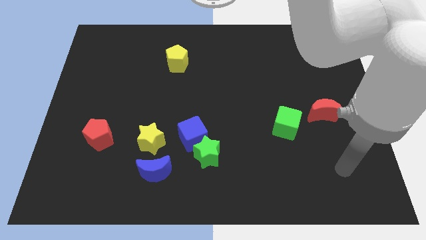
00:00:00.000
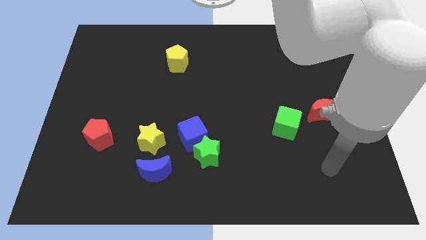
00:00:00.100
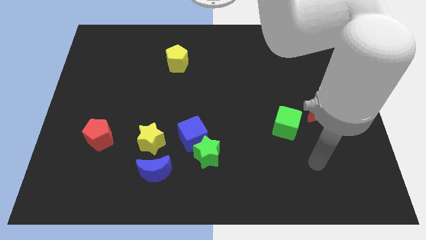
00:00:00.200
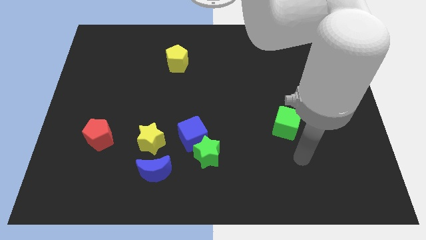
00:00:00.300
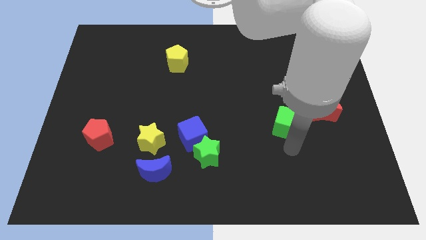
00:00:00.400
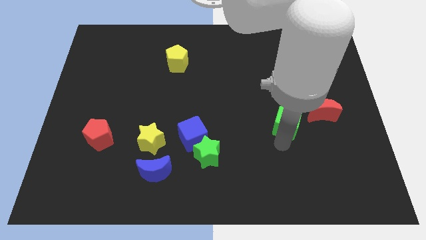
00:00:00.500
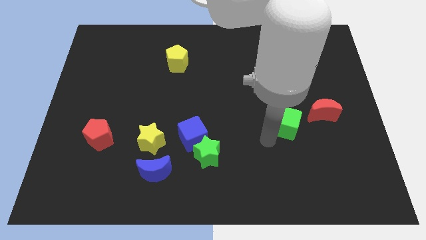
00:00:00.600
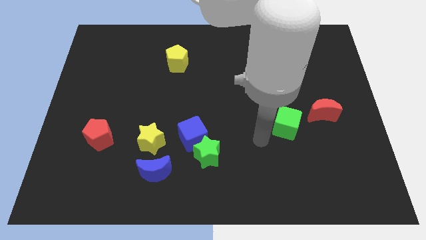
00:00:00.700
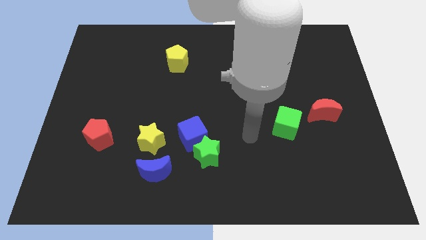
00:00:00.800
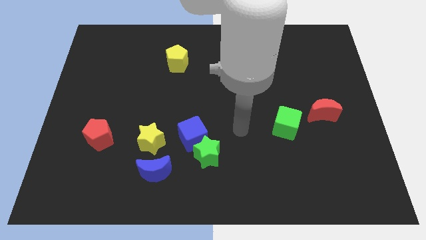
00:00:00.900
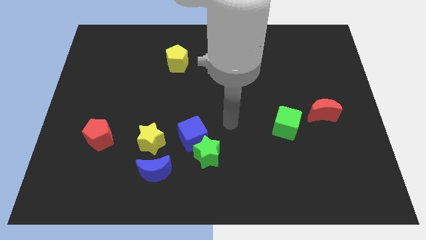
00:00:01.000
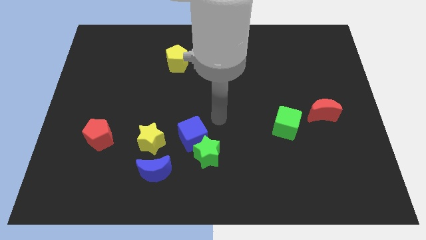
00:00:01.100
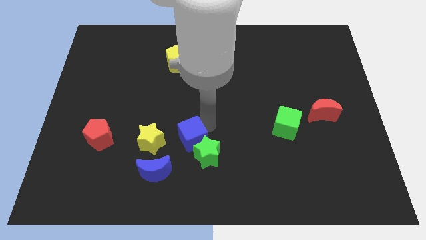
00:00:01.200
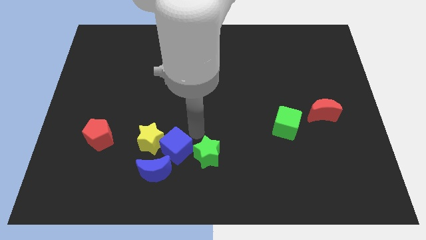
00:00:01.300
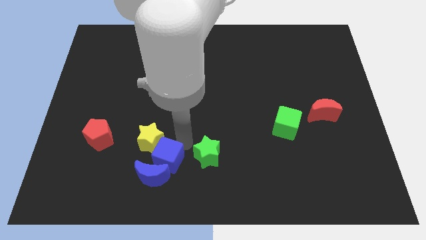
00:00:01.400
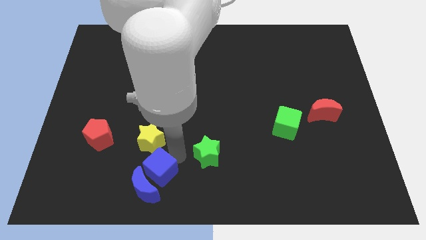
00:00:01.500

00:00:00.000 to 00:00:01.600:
separate the green star from the blue cube

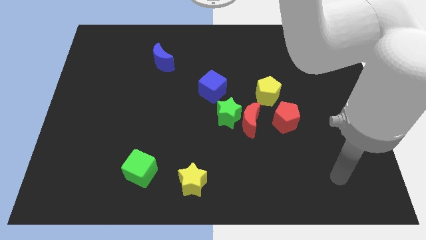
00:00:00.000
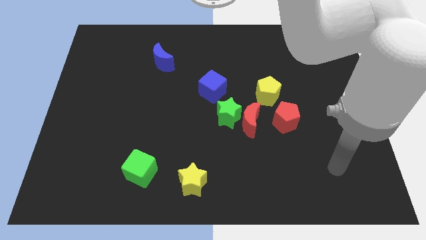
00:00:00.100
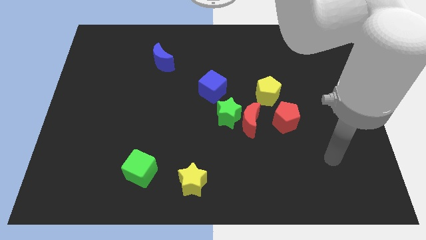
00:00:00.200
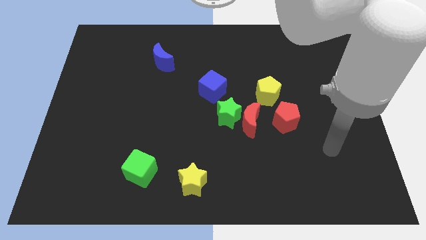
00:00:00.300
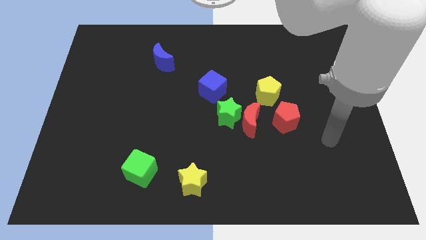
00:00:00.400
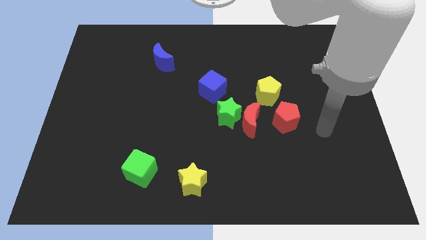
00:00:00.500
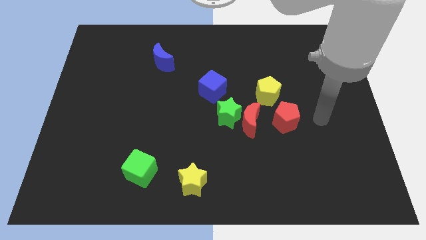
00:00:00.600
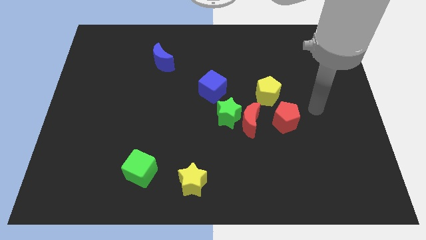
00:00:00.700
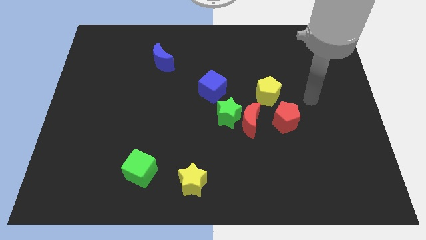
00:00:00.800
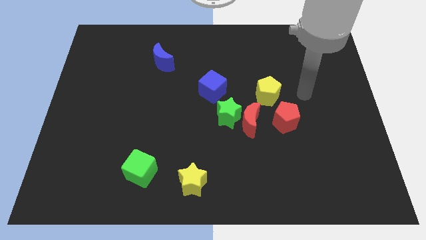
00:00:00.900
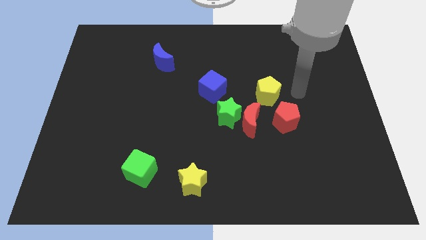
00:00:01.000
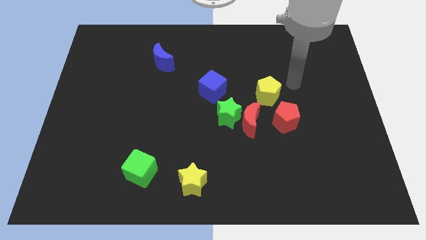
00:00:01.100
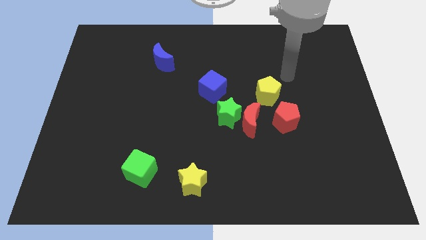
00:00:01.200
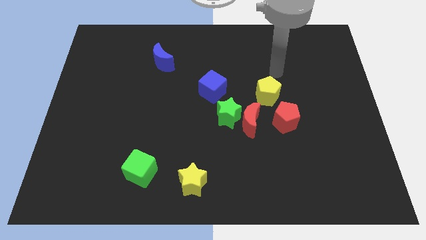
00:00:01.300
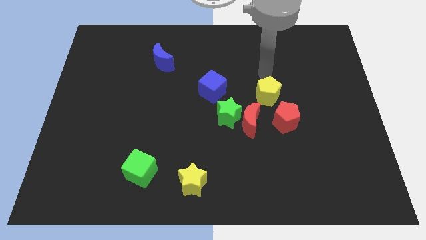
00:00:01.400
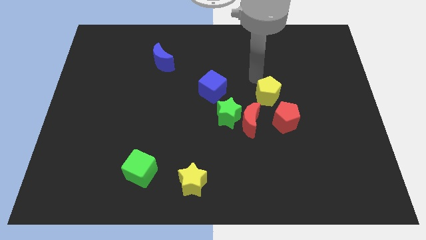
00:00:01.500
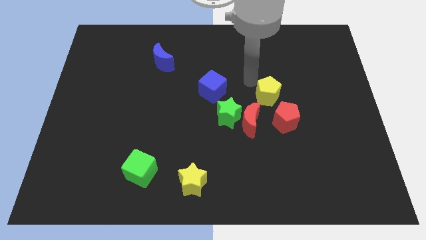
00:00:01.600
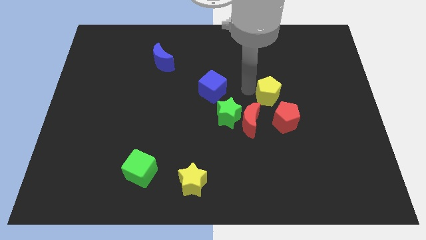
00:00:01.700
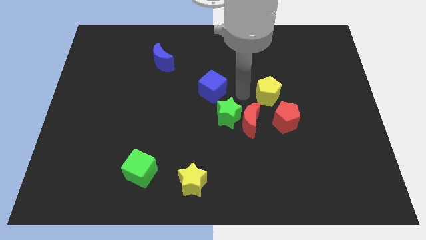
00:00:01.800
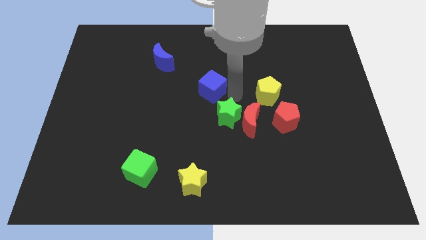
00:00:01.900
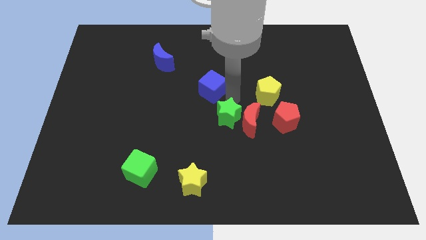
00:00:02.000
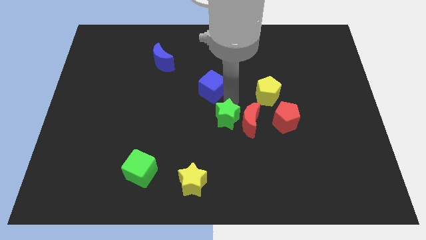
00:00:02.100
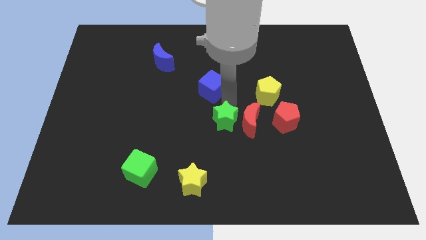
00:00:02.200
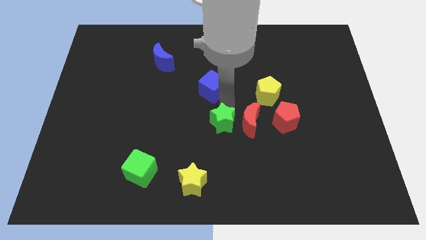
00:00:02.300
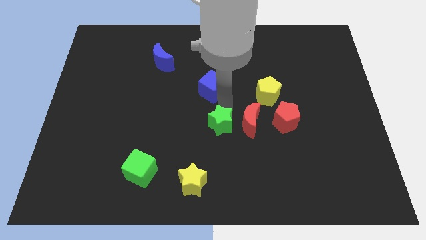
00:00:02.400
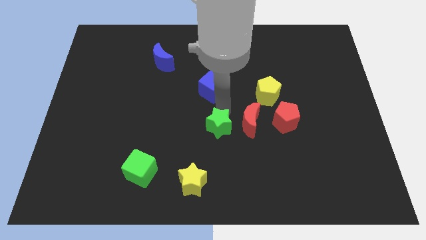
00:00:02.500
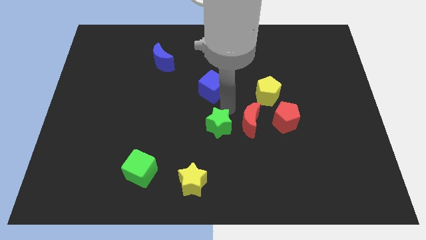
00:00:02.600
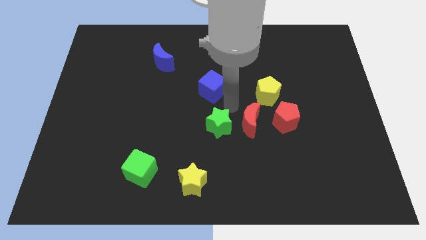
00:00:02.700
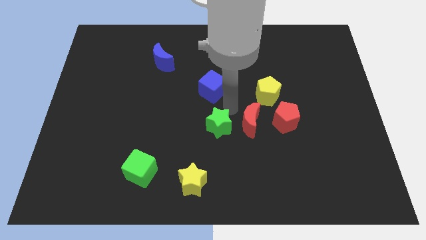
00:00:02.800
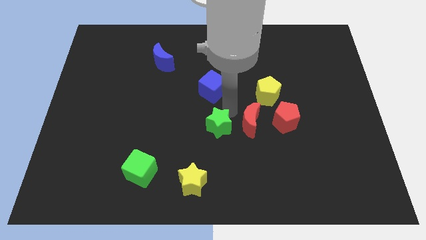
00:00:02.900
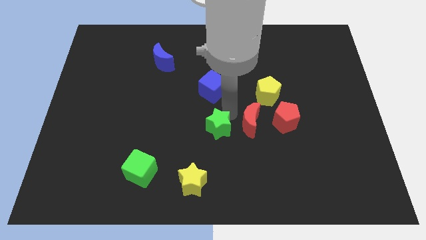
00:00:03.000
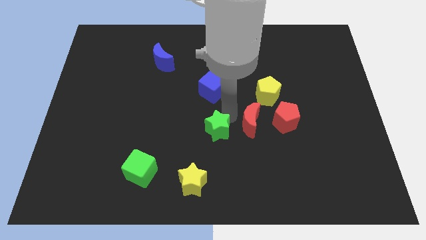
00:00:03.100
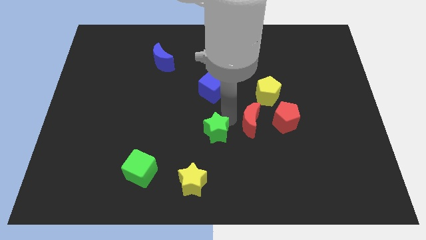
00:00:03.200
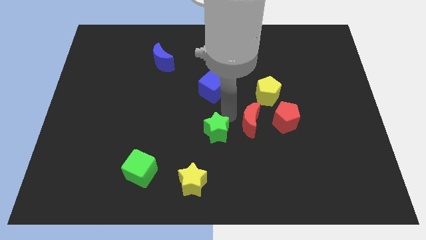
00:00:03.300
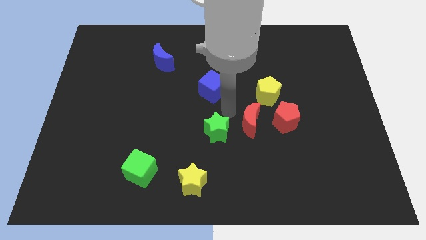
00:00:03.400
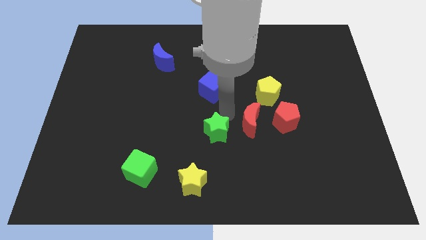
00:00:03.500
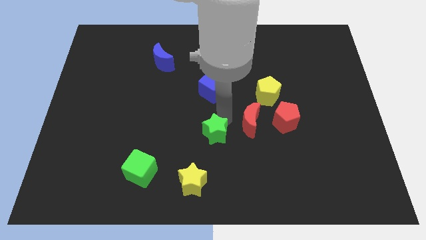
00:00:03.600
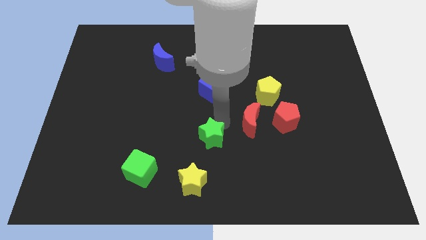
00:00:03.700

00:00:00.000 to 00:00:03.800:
separate the green star from the red moon and blue cube

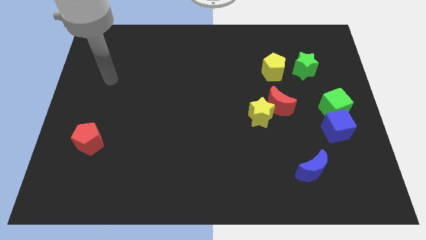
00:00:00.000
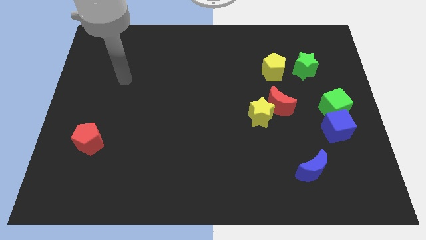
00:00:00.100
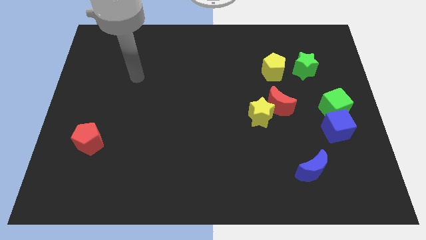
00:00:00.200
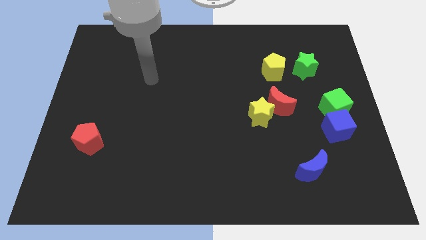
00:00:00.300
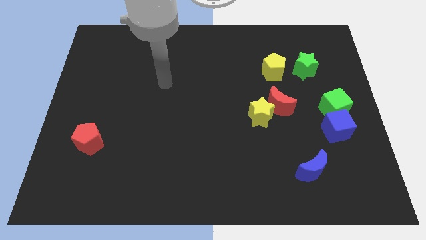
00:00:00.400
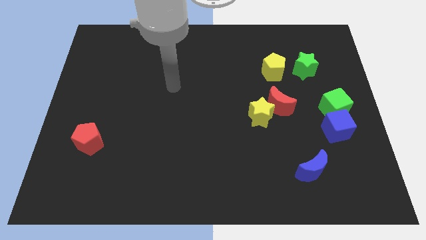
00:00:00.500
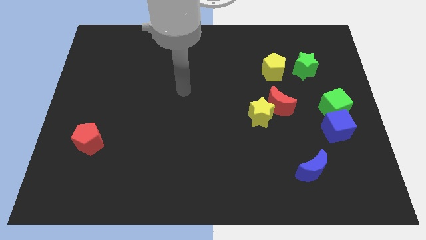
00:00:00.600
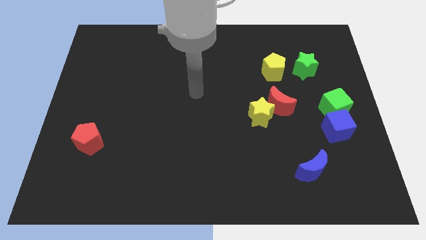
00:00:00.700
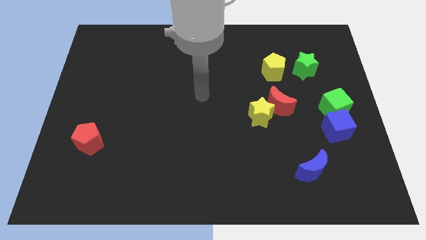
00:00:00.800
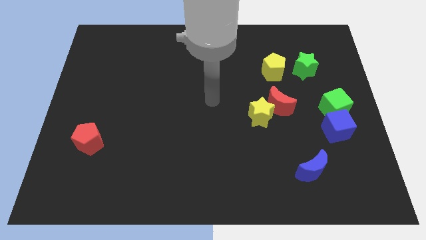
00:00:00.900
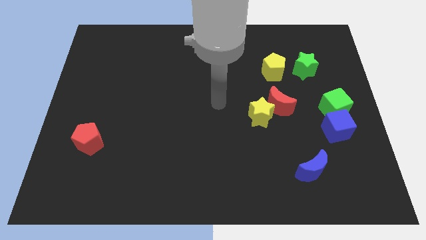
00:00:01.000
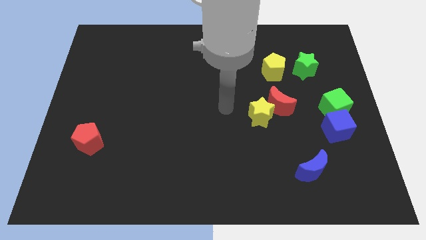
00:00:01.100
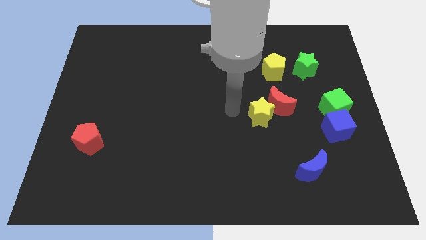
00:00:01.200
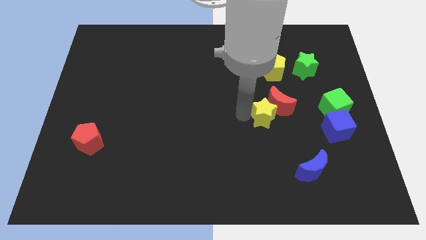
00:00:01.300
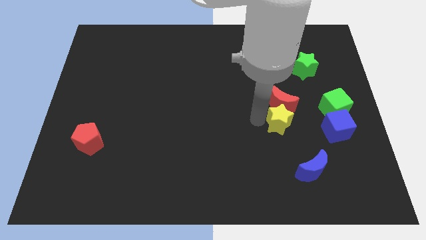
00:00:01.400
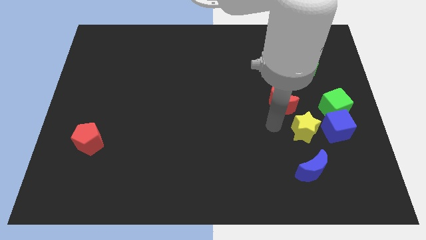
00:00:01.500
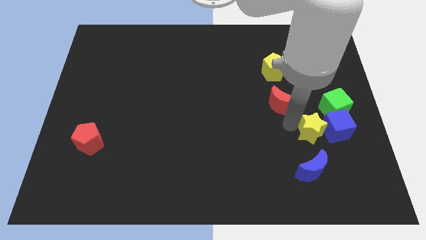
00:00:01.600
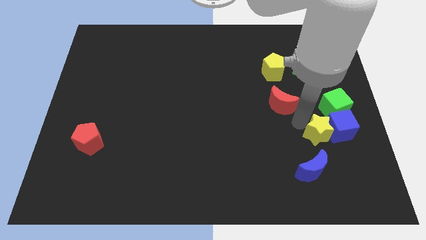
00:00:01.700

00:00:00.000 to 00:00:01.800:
pull the red moon apart from the yellow star

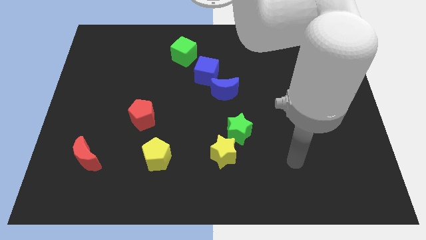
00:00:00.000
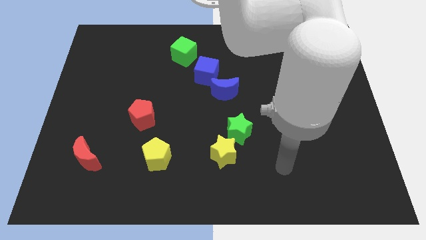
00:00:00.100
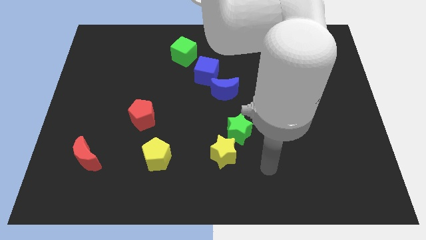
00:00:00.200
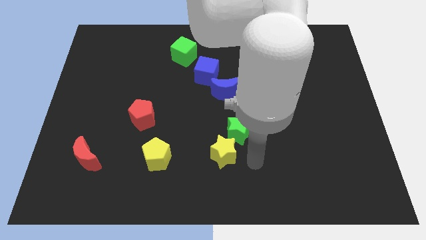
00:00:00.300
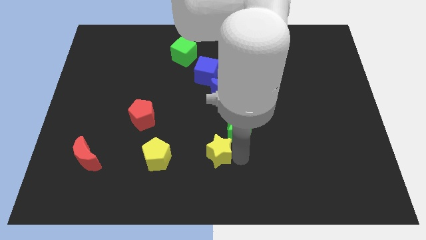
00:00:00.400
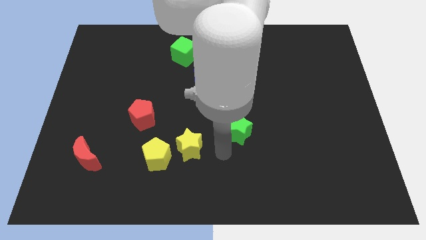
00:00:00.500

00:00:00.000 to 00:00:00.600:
separate the green star from the yellow star

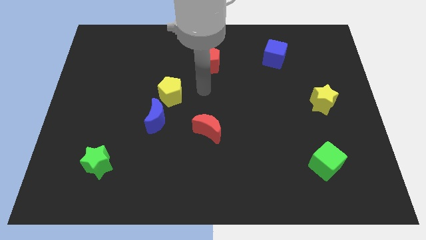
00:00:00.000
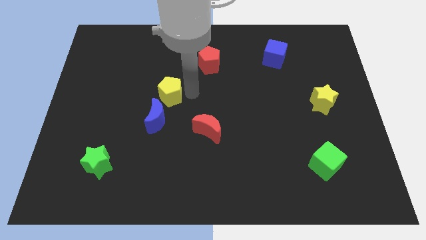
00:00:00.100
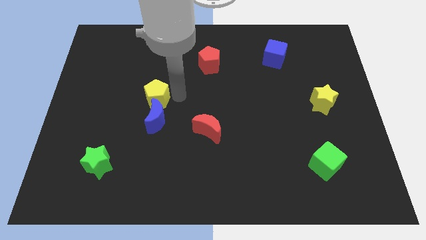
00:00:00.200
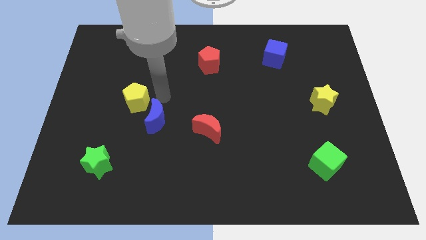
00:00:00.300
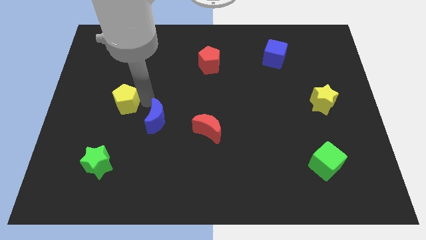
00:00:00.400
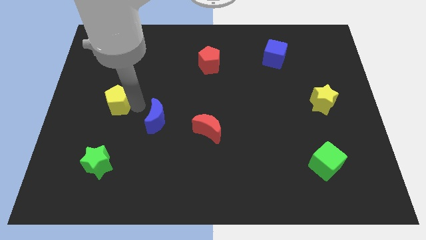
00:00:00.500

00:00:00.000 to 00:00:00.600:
move the blue moon away from the yellow pentagon

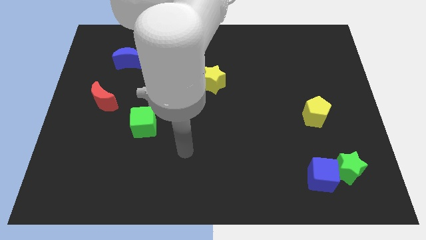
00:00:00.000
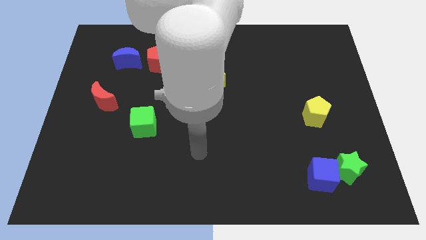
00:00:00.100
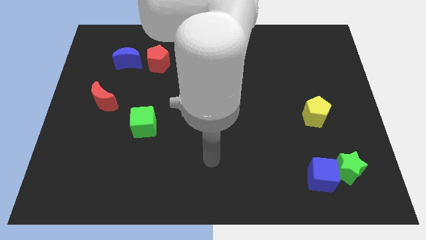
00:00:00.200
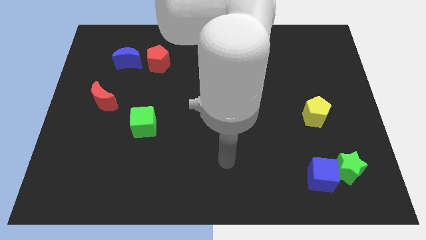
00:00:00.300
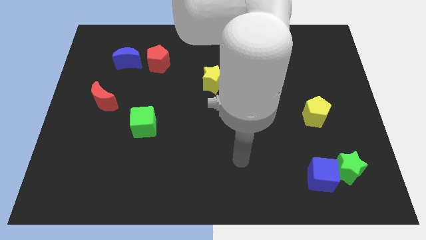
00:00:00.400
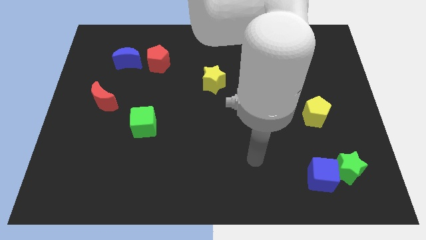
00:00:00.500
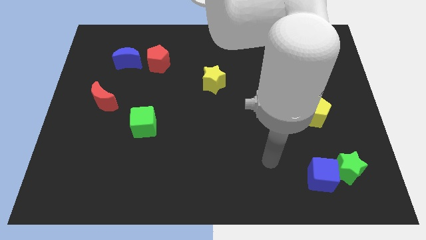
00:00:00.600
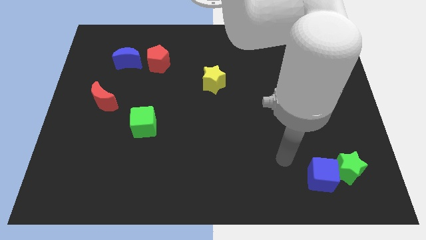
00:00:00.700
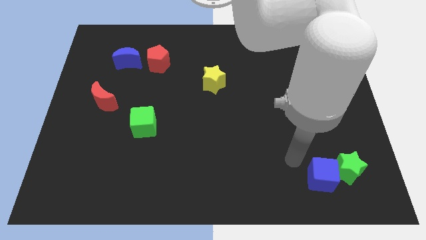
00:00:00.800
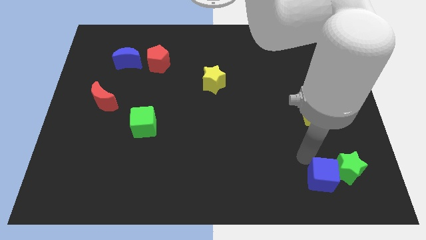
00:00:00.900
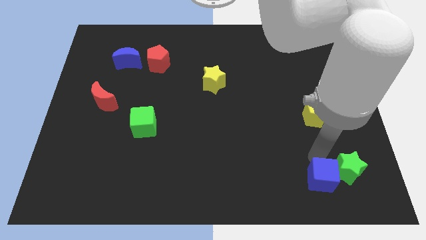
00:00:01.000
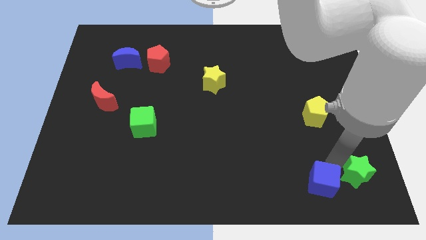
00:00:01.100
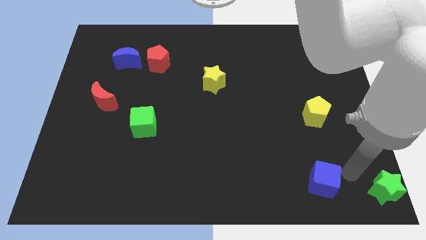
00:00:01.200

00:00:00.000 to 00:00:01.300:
move the blue cube away from the green star
